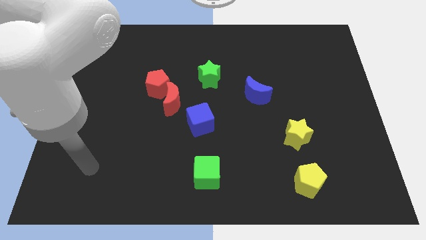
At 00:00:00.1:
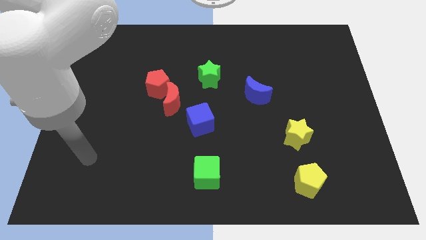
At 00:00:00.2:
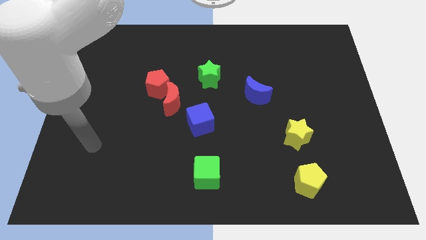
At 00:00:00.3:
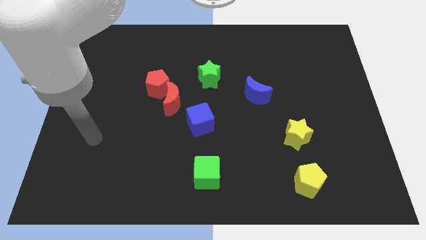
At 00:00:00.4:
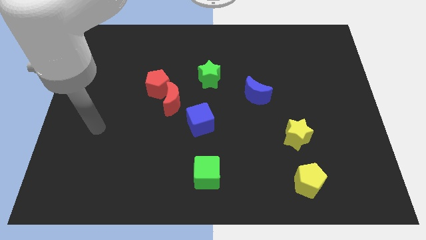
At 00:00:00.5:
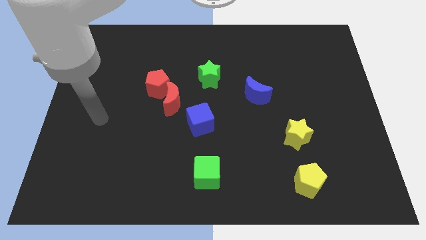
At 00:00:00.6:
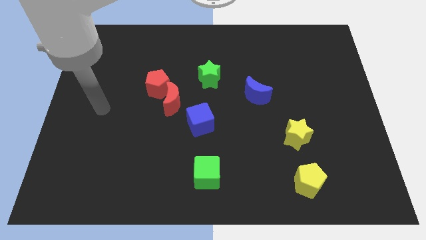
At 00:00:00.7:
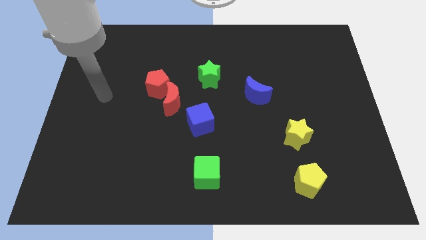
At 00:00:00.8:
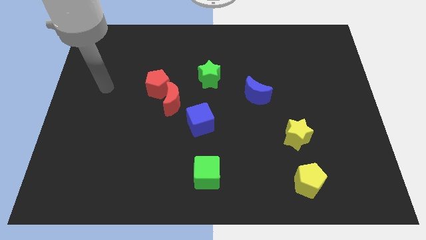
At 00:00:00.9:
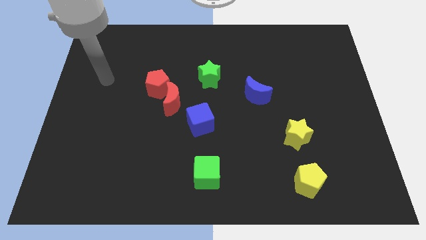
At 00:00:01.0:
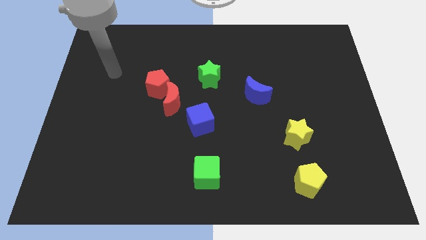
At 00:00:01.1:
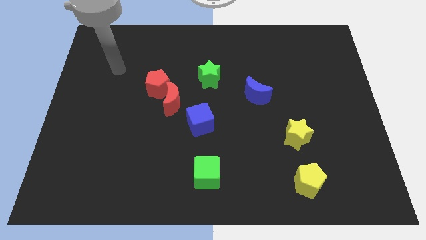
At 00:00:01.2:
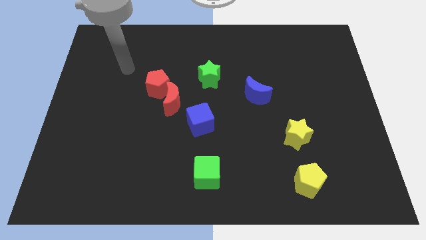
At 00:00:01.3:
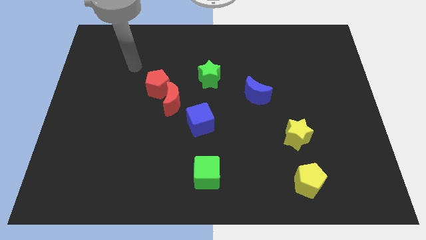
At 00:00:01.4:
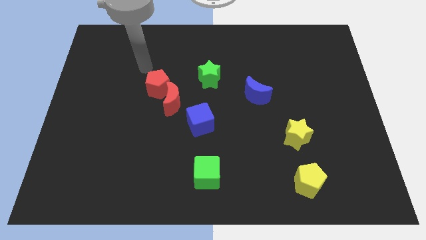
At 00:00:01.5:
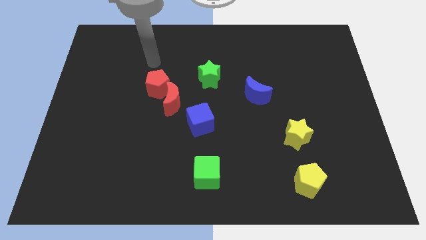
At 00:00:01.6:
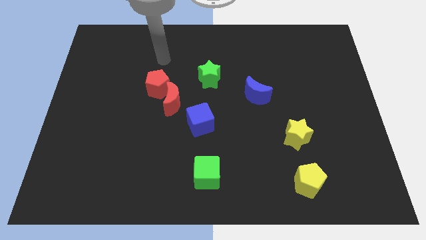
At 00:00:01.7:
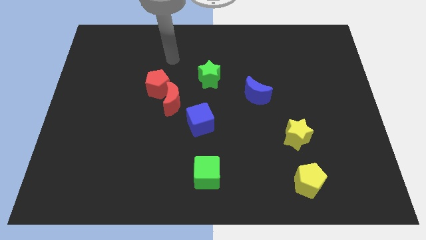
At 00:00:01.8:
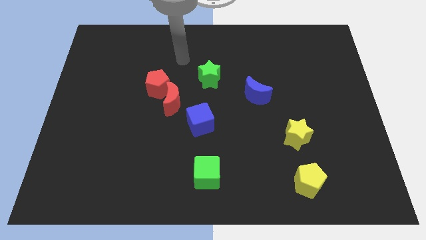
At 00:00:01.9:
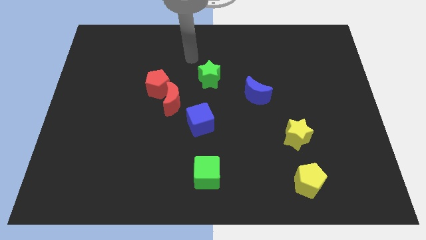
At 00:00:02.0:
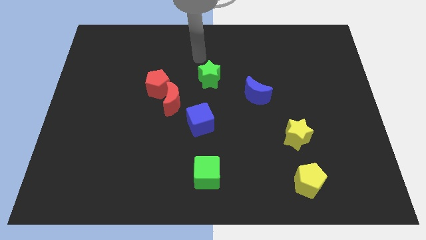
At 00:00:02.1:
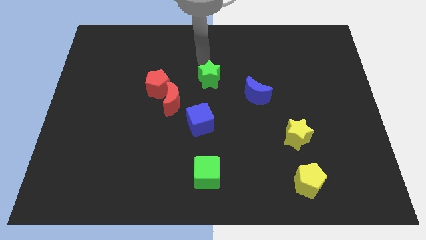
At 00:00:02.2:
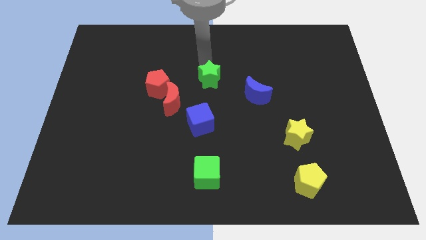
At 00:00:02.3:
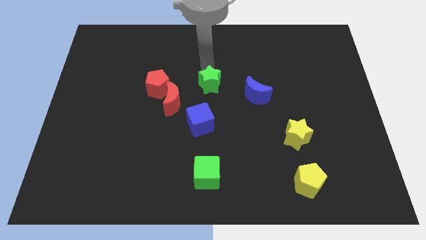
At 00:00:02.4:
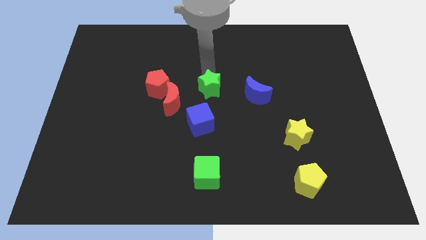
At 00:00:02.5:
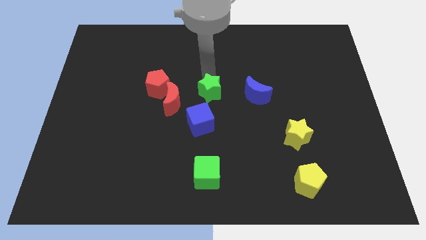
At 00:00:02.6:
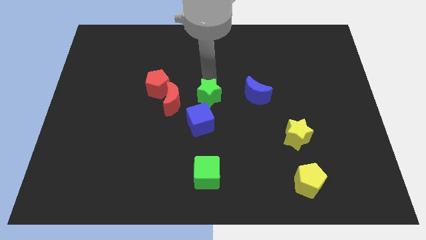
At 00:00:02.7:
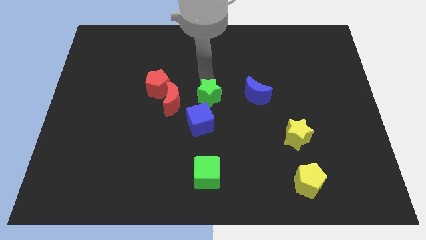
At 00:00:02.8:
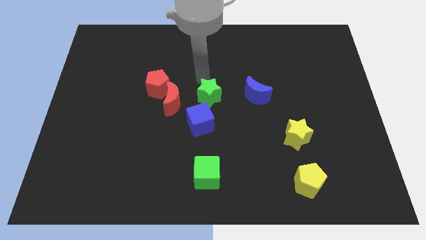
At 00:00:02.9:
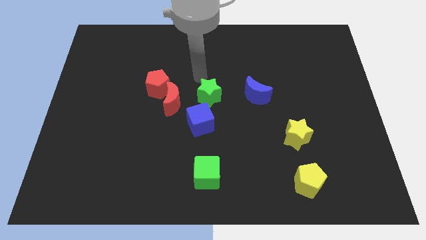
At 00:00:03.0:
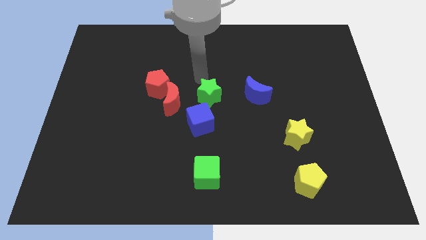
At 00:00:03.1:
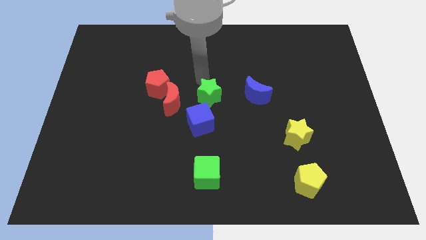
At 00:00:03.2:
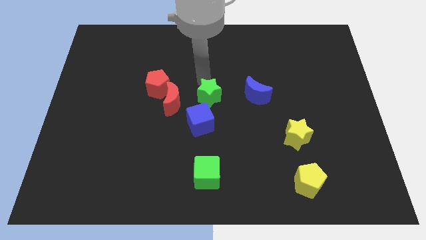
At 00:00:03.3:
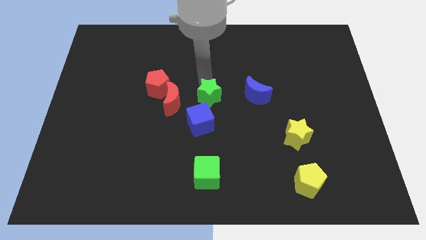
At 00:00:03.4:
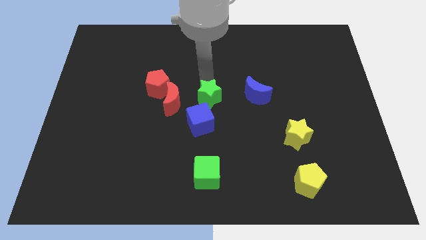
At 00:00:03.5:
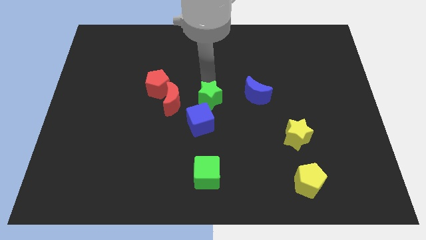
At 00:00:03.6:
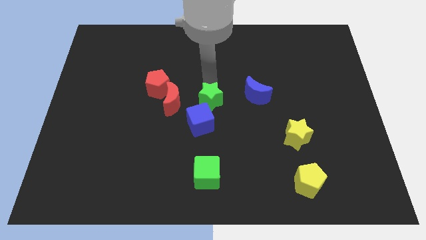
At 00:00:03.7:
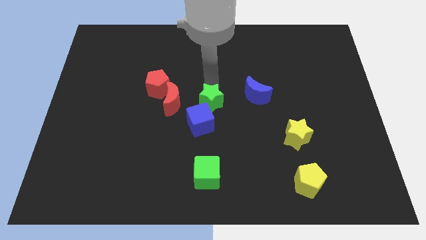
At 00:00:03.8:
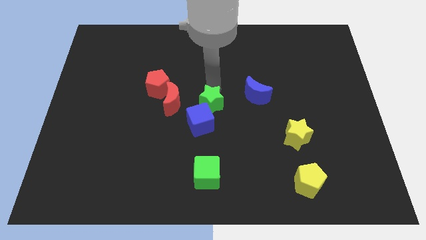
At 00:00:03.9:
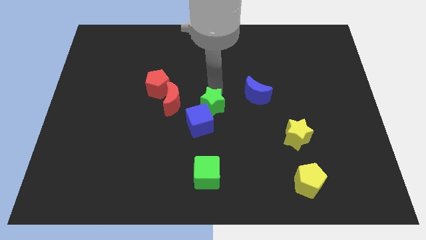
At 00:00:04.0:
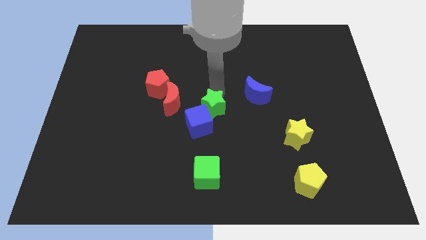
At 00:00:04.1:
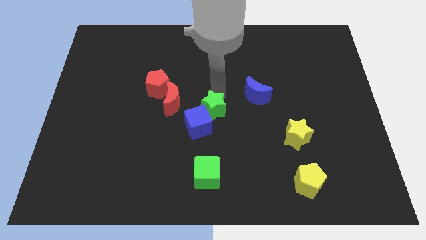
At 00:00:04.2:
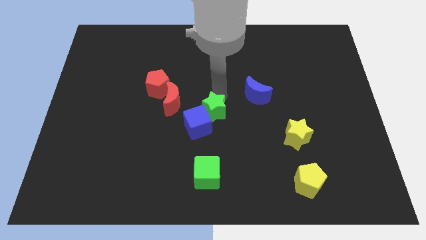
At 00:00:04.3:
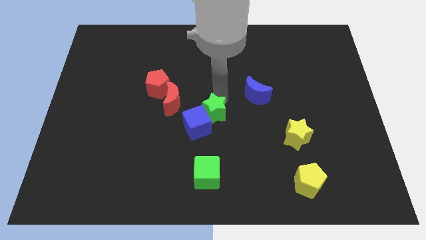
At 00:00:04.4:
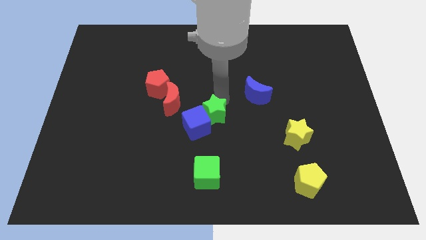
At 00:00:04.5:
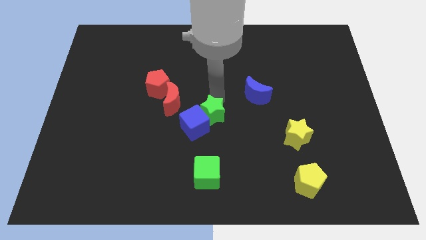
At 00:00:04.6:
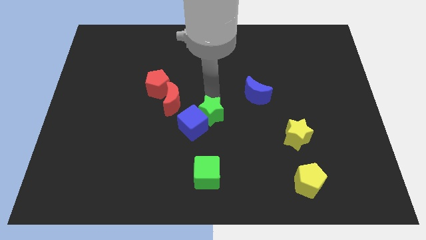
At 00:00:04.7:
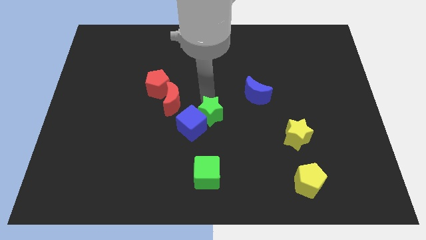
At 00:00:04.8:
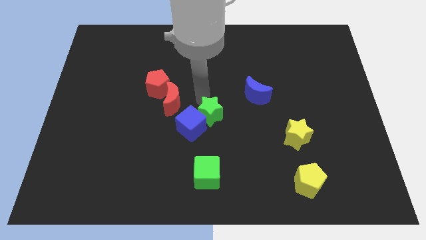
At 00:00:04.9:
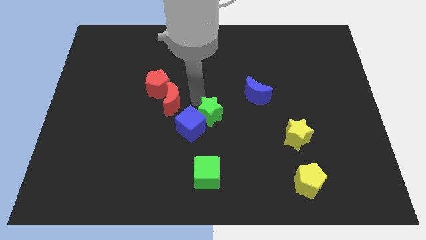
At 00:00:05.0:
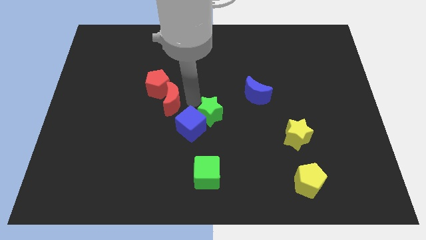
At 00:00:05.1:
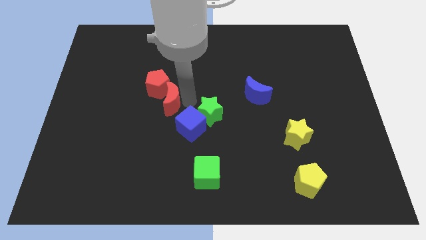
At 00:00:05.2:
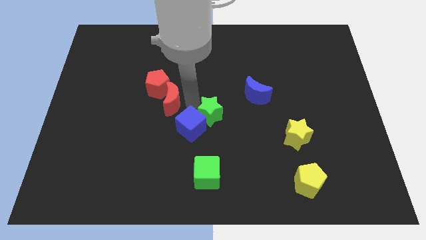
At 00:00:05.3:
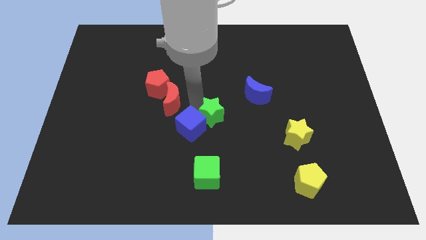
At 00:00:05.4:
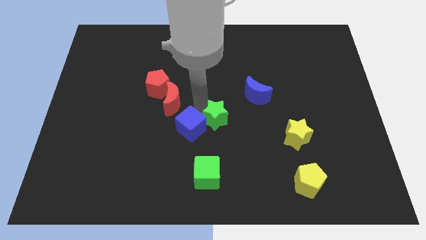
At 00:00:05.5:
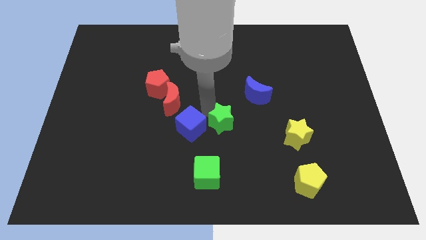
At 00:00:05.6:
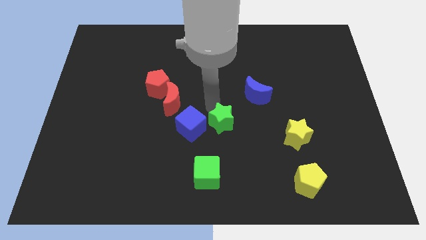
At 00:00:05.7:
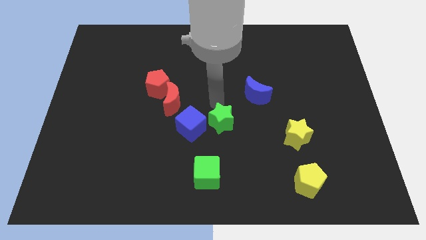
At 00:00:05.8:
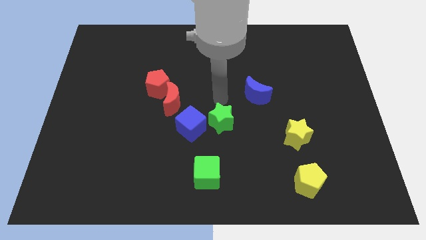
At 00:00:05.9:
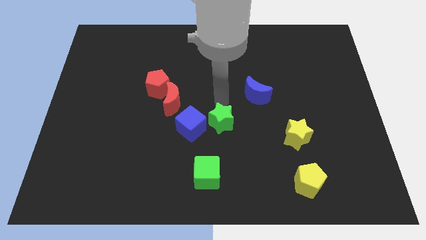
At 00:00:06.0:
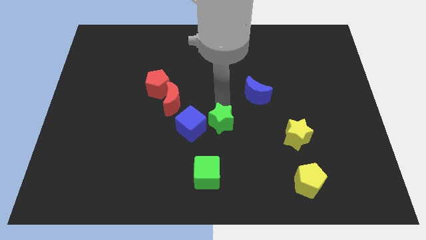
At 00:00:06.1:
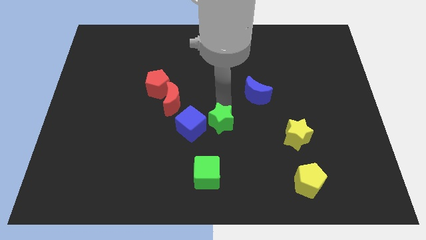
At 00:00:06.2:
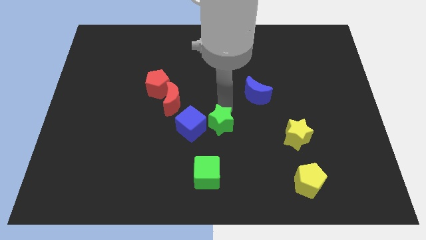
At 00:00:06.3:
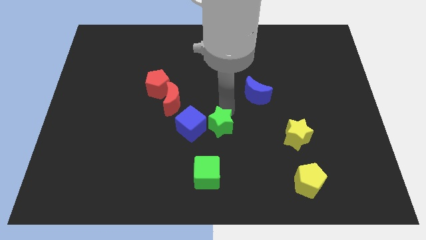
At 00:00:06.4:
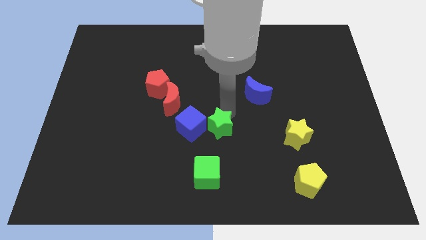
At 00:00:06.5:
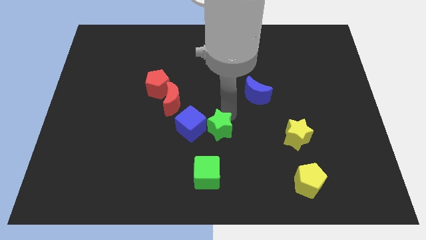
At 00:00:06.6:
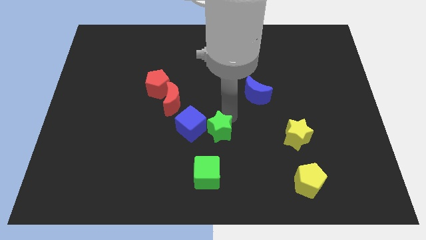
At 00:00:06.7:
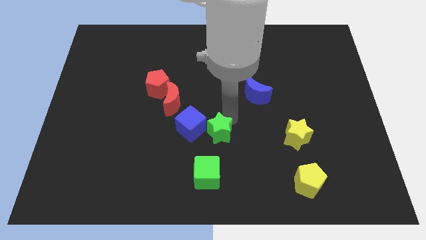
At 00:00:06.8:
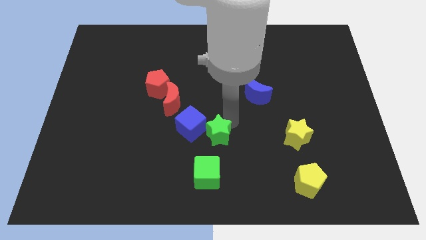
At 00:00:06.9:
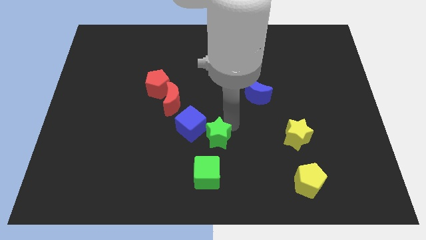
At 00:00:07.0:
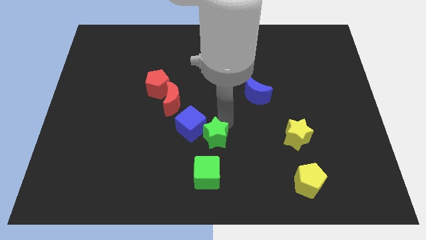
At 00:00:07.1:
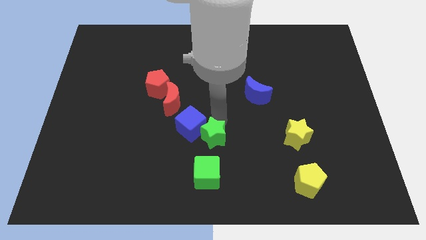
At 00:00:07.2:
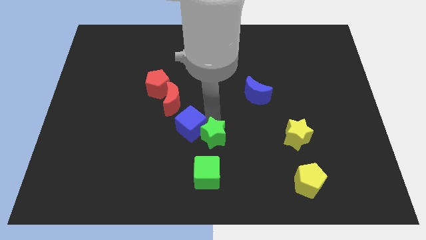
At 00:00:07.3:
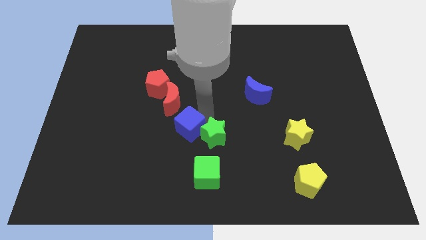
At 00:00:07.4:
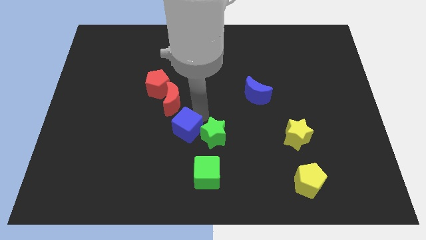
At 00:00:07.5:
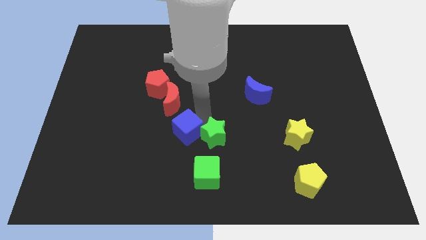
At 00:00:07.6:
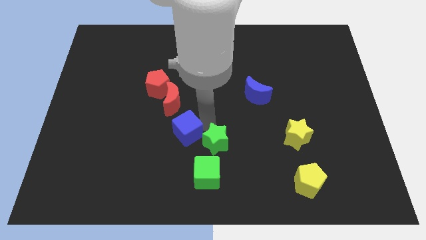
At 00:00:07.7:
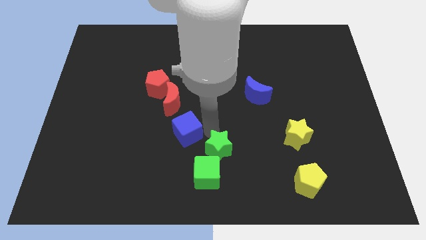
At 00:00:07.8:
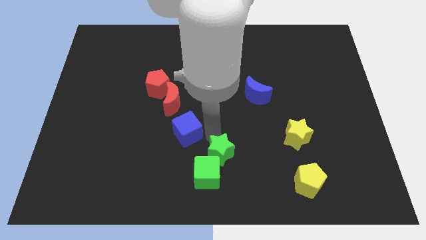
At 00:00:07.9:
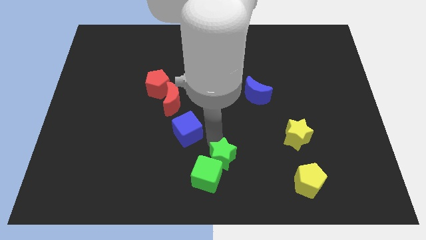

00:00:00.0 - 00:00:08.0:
move the green star to the bottom side
